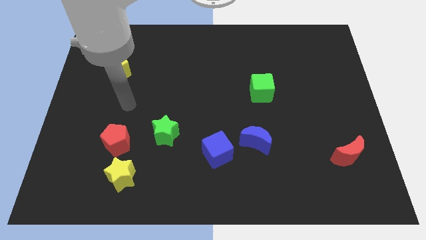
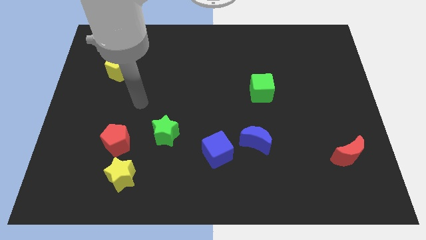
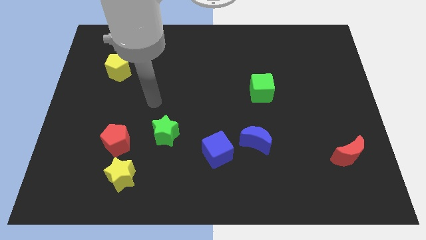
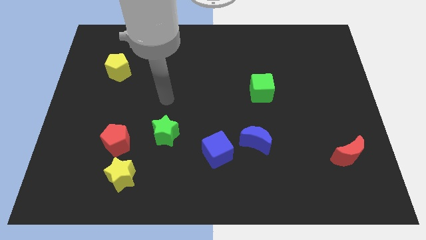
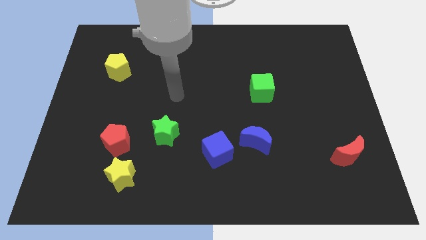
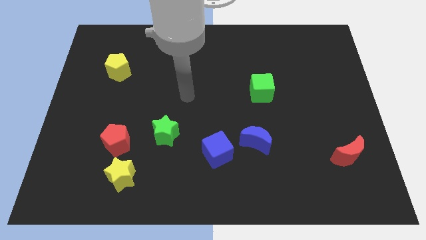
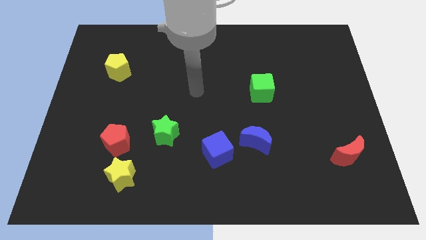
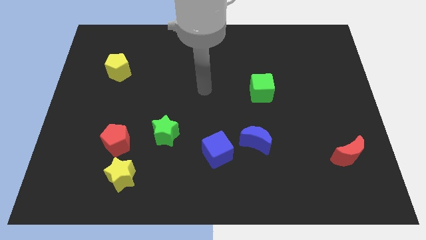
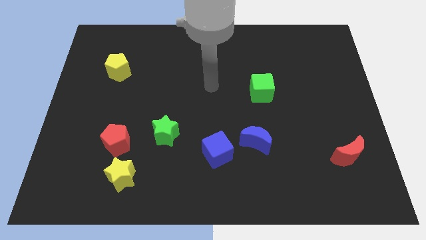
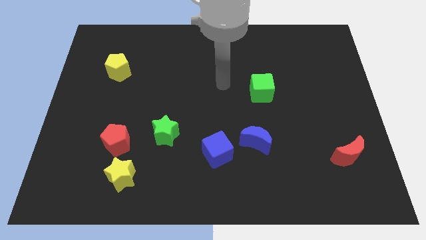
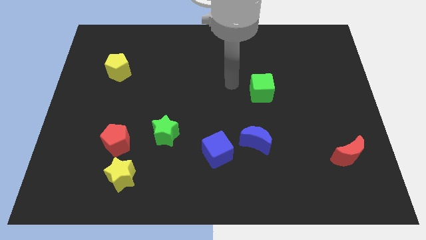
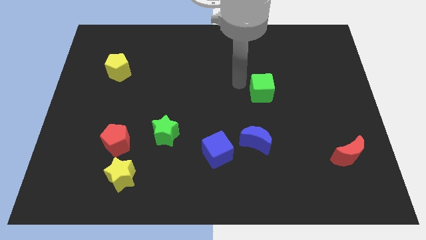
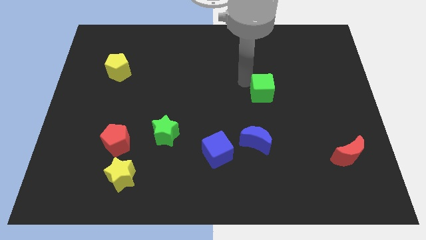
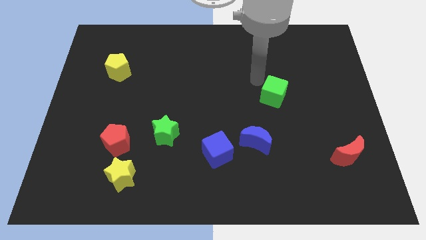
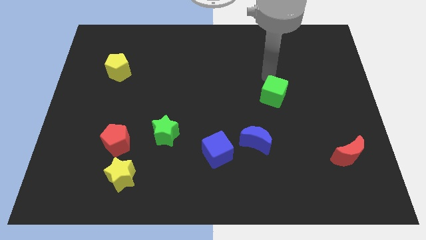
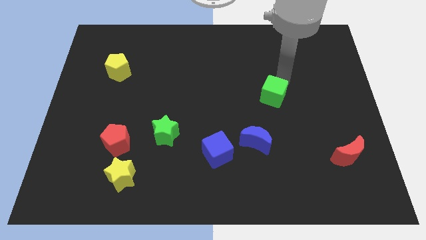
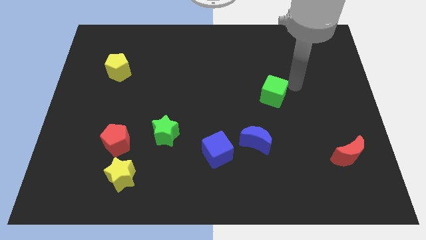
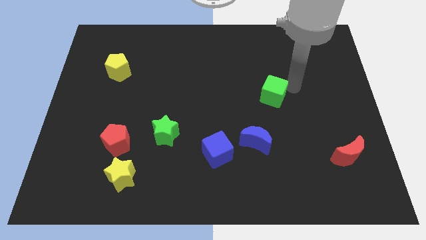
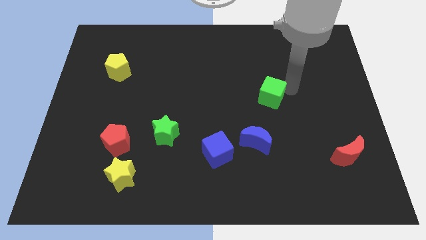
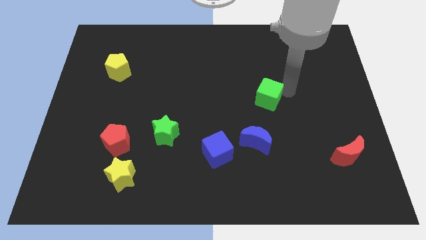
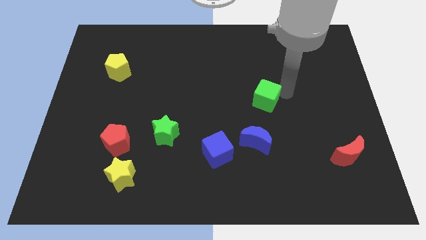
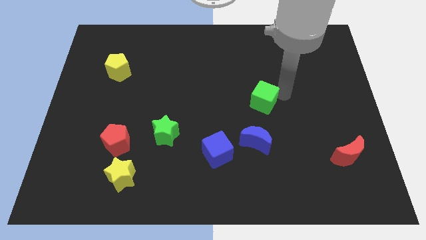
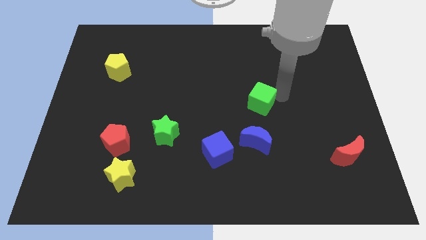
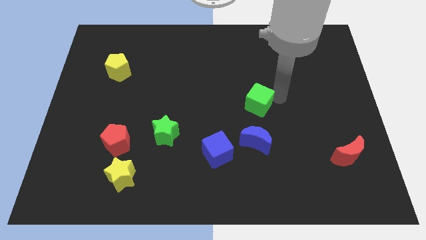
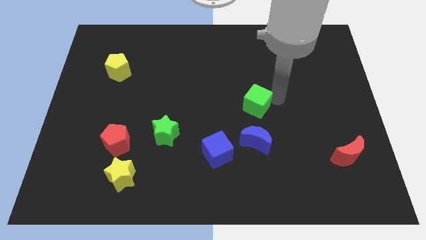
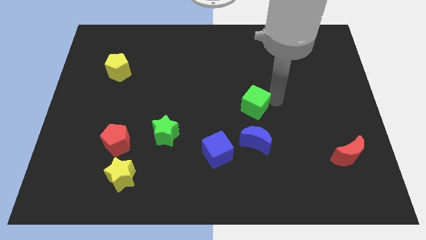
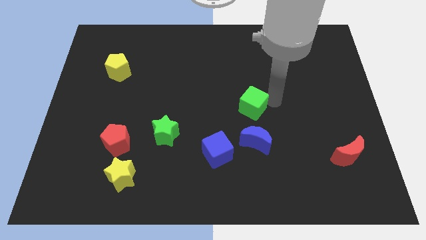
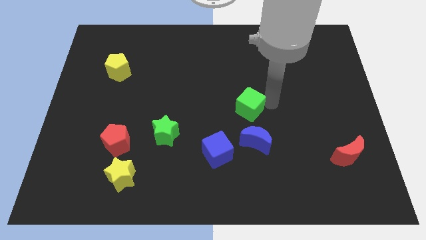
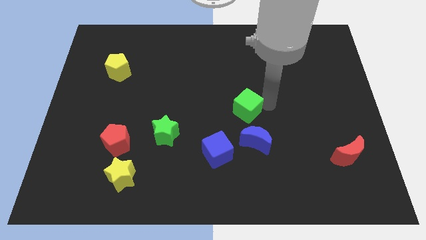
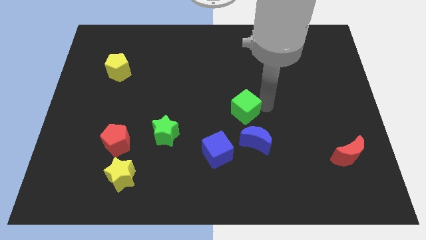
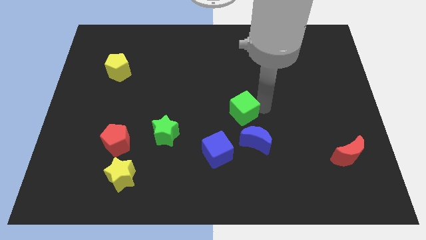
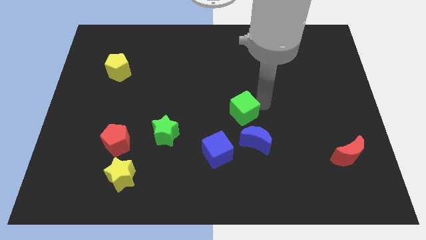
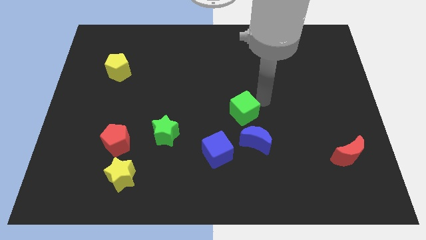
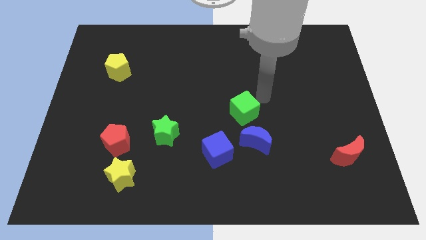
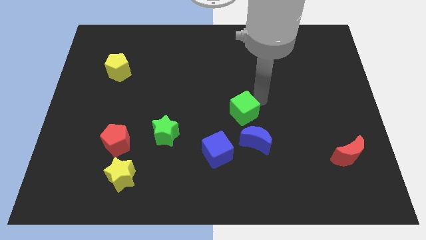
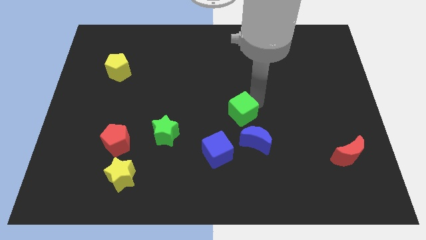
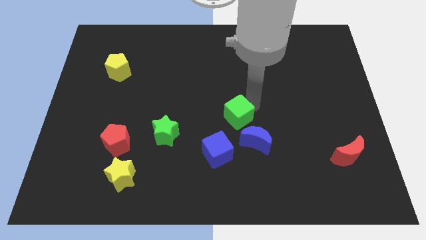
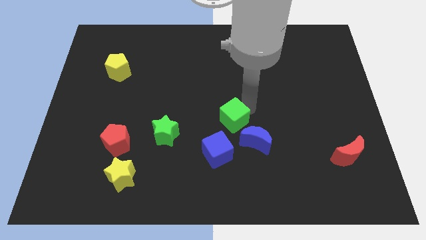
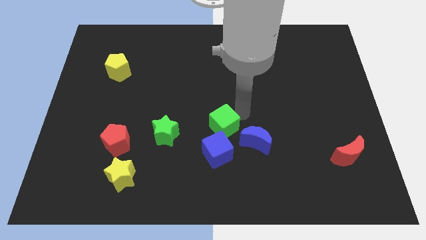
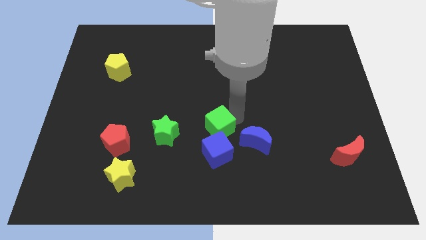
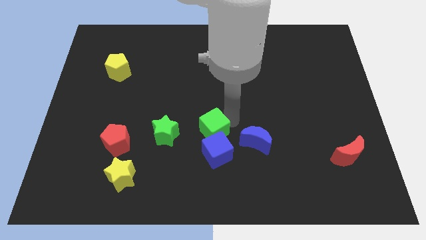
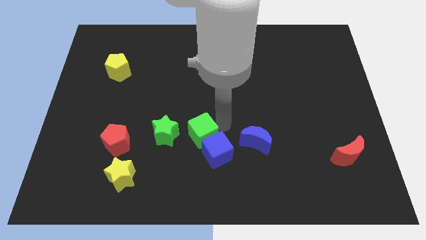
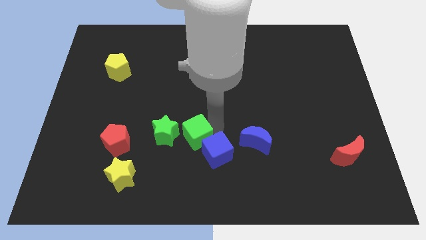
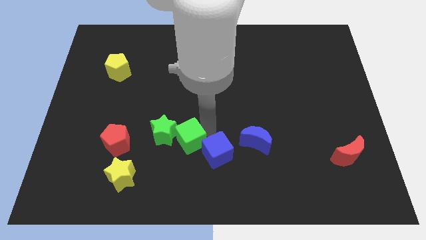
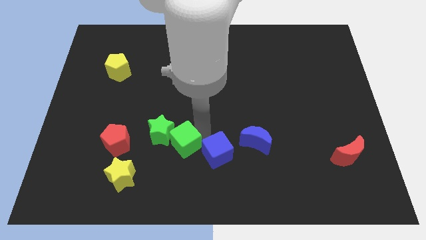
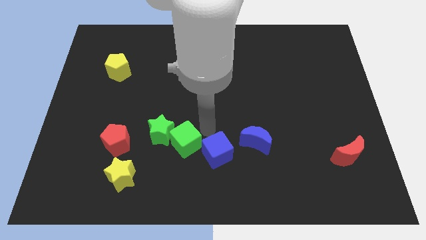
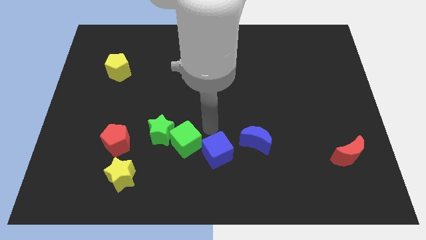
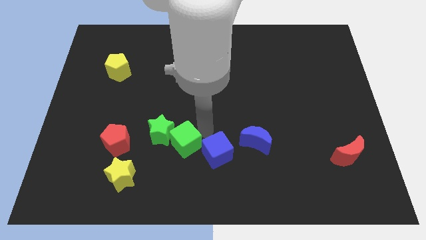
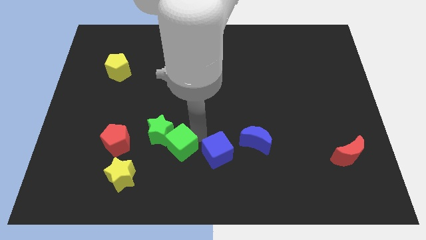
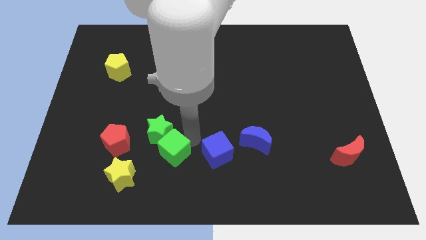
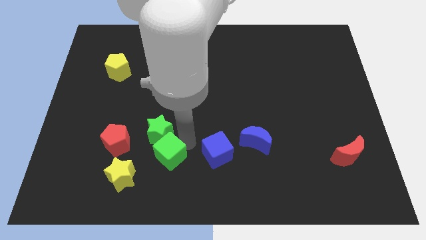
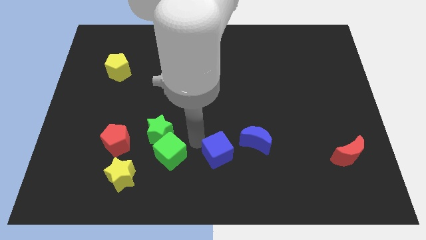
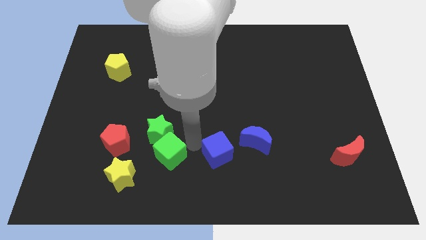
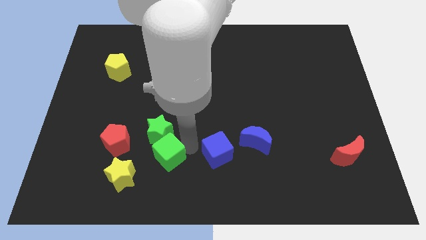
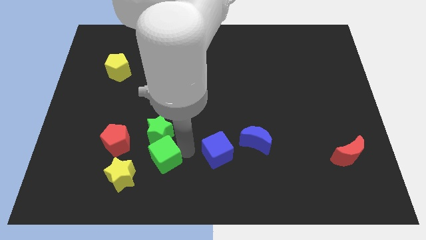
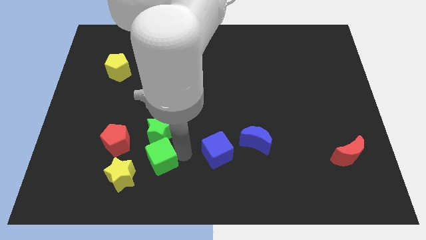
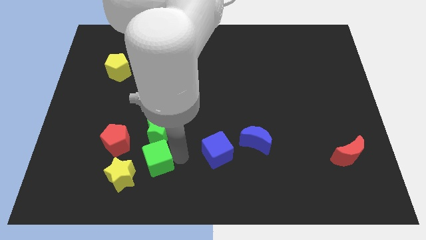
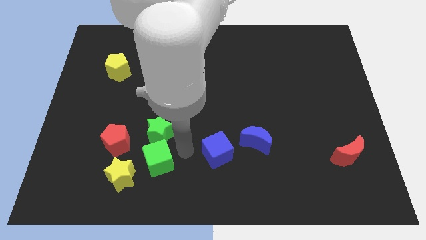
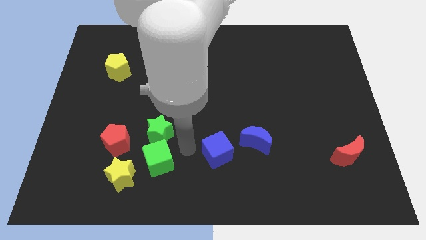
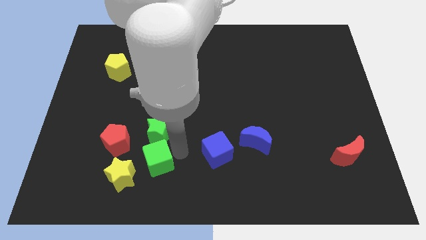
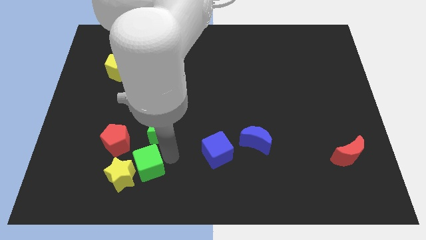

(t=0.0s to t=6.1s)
put the green cube towards the yellow star
